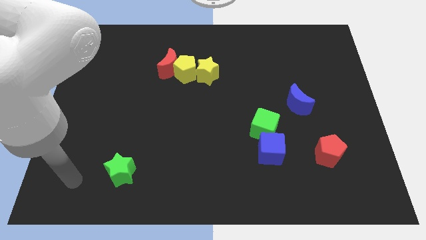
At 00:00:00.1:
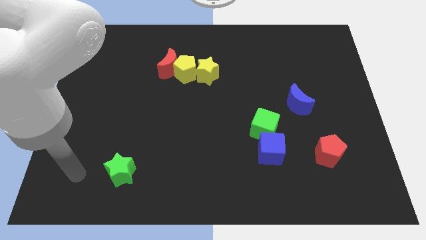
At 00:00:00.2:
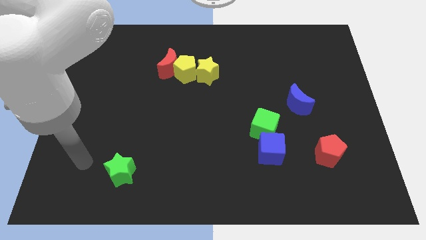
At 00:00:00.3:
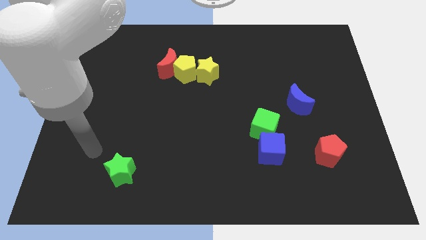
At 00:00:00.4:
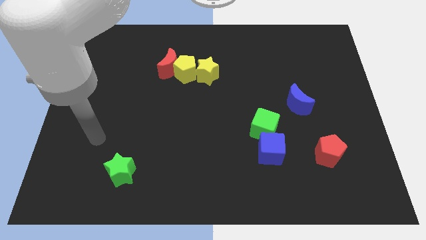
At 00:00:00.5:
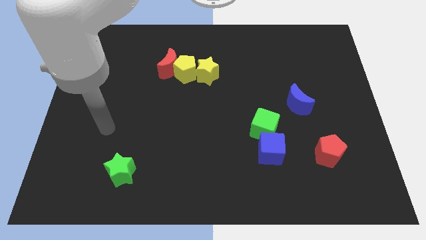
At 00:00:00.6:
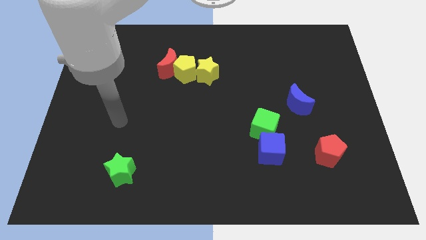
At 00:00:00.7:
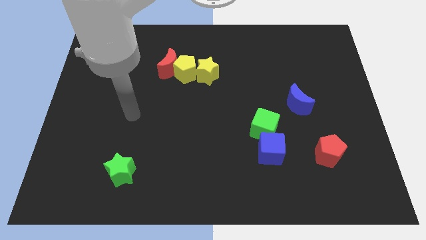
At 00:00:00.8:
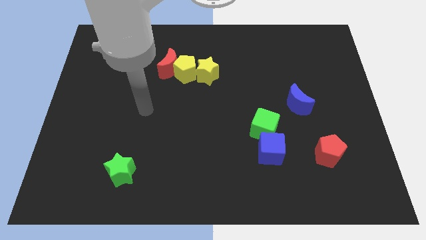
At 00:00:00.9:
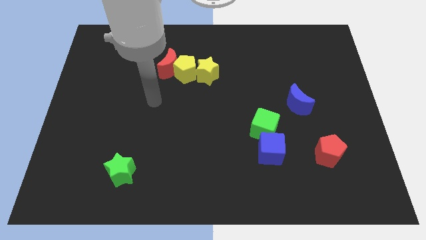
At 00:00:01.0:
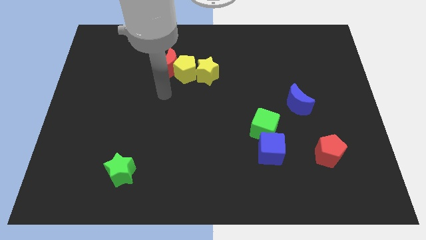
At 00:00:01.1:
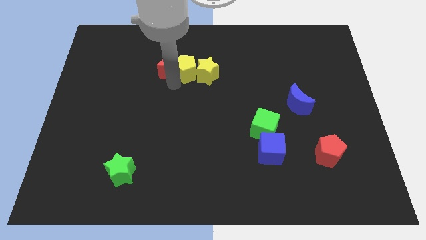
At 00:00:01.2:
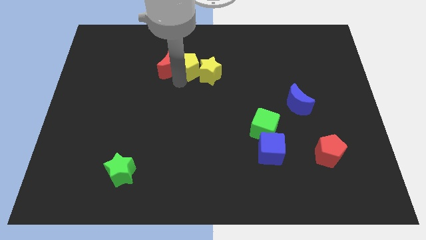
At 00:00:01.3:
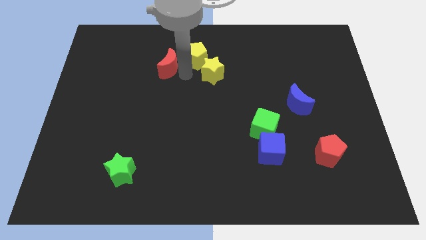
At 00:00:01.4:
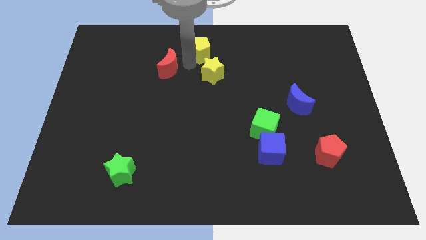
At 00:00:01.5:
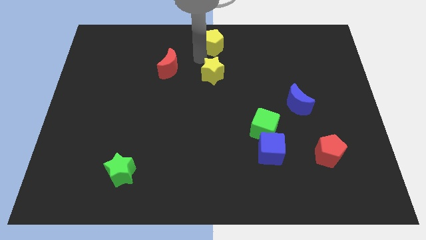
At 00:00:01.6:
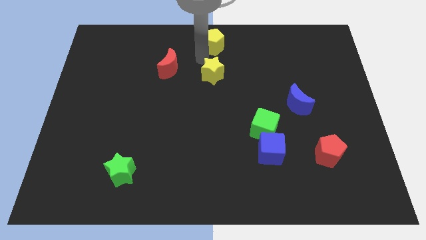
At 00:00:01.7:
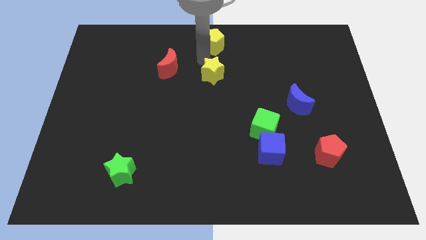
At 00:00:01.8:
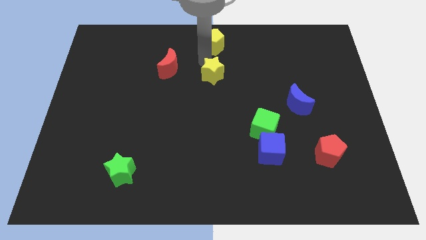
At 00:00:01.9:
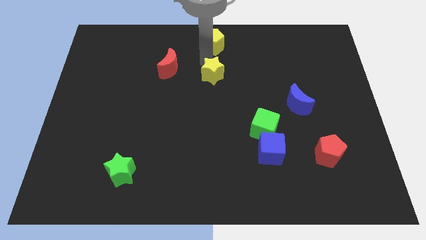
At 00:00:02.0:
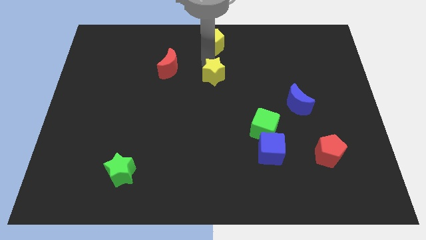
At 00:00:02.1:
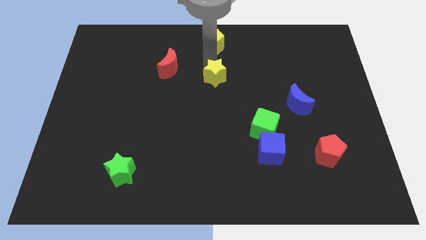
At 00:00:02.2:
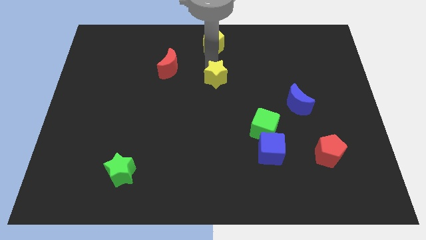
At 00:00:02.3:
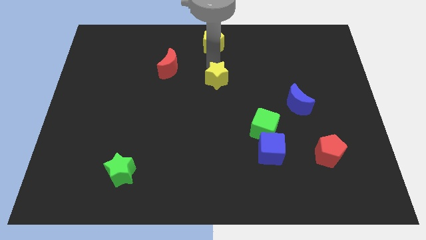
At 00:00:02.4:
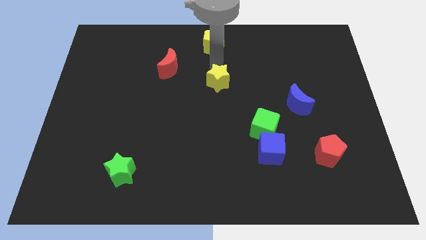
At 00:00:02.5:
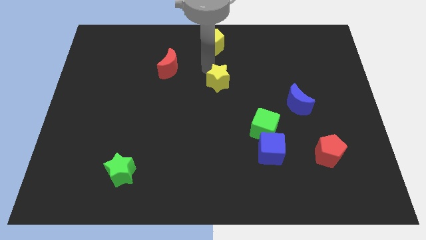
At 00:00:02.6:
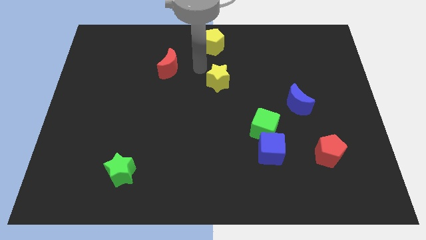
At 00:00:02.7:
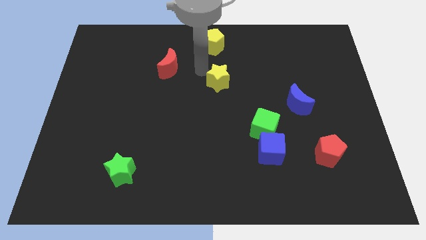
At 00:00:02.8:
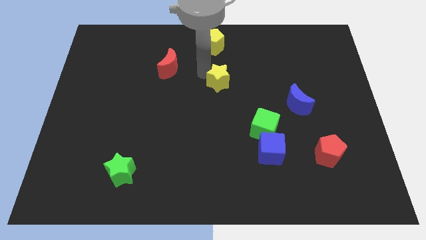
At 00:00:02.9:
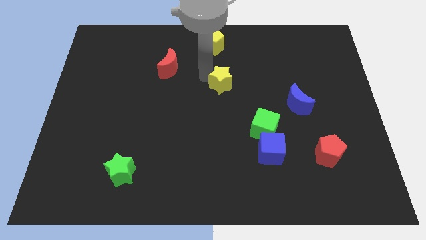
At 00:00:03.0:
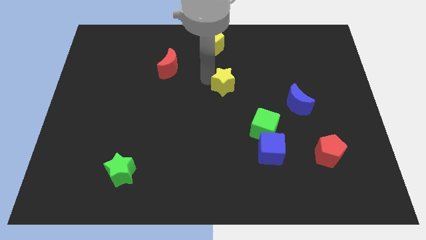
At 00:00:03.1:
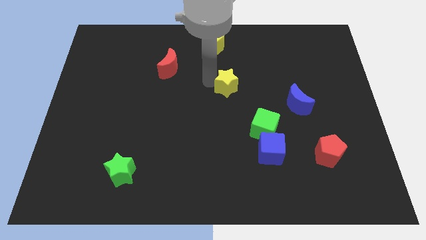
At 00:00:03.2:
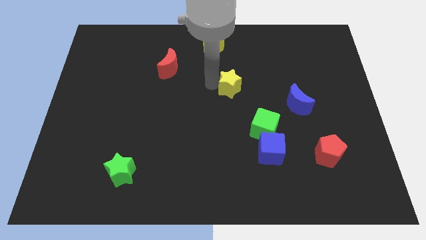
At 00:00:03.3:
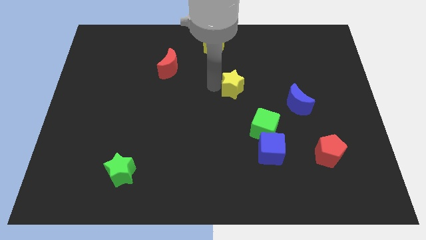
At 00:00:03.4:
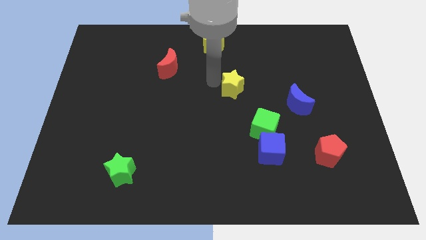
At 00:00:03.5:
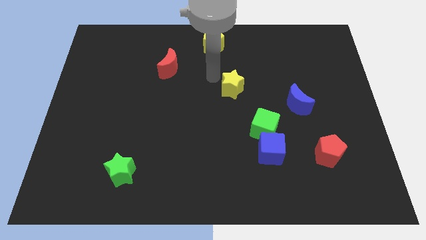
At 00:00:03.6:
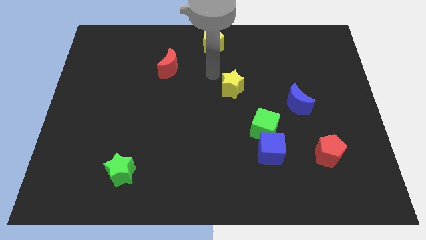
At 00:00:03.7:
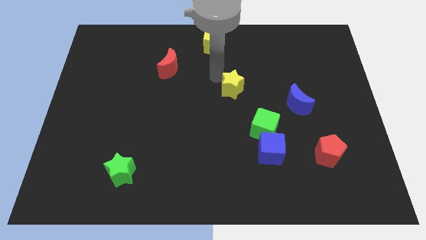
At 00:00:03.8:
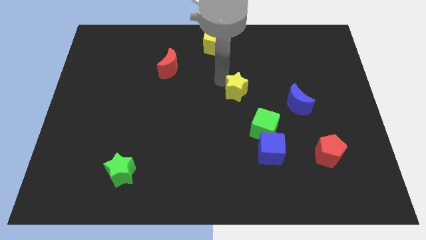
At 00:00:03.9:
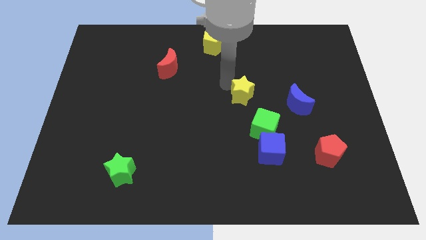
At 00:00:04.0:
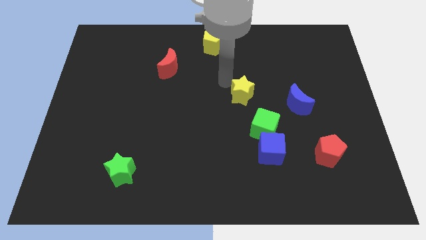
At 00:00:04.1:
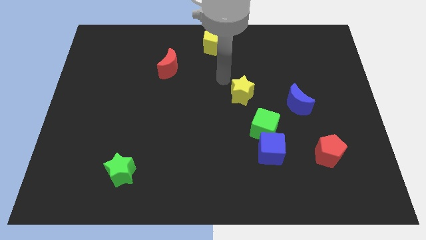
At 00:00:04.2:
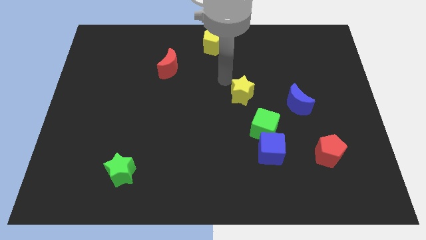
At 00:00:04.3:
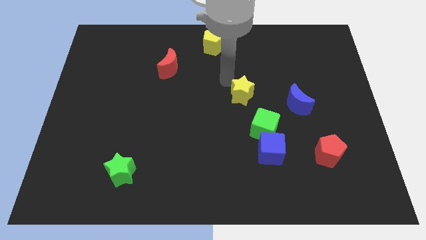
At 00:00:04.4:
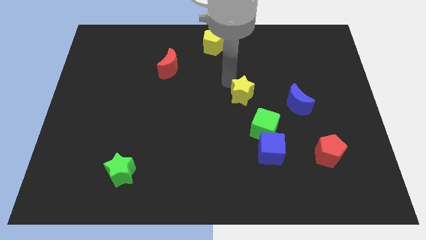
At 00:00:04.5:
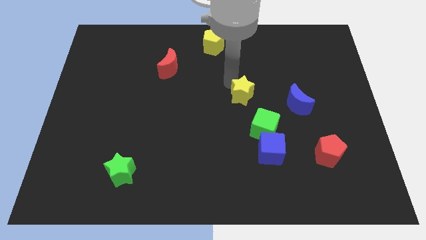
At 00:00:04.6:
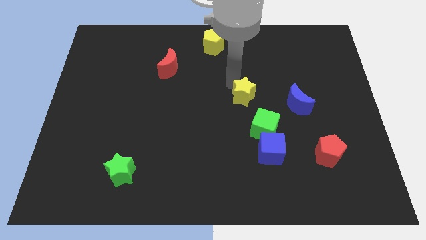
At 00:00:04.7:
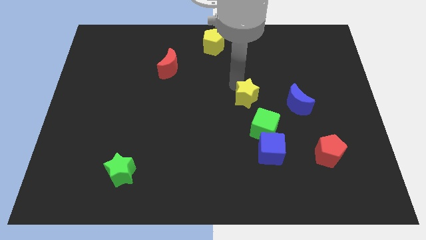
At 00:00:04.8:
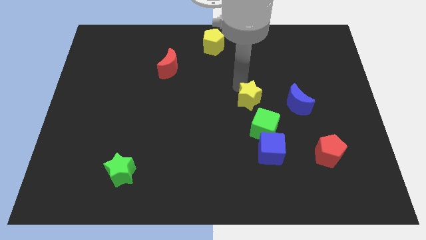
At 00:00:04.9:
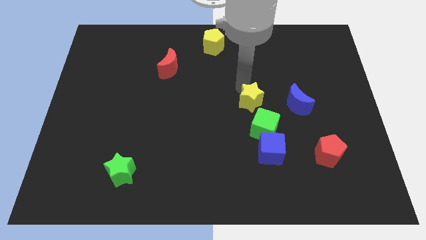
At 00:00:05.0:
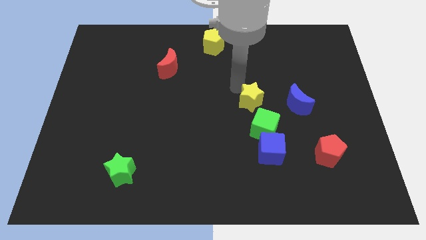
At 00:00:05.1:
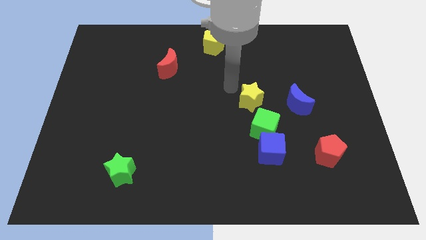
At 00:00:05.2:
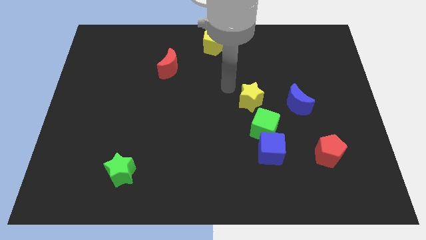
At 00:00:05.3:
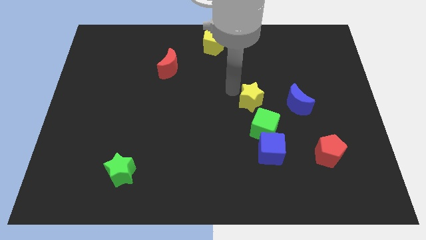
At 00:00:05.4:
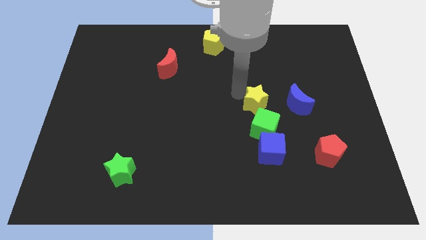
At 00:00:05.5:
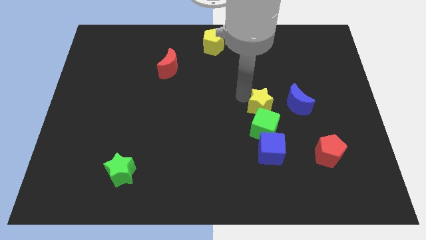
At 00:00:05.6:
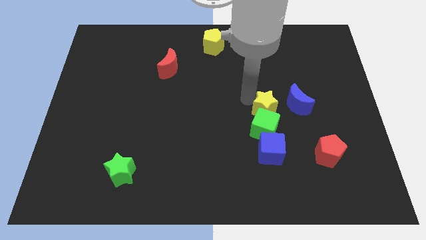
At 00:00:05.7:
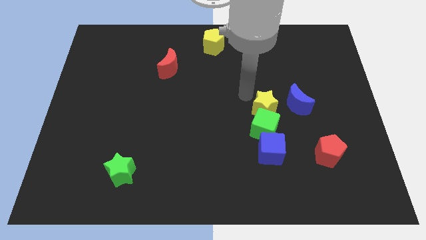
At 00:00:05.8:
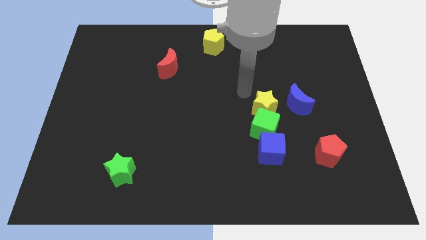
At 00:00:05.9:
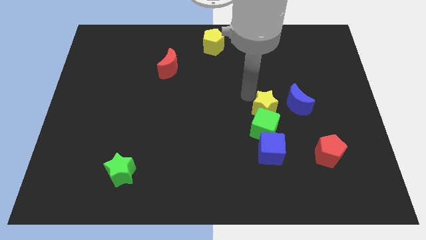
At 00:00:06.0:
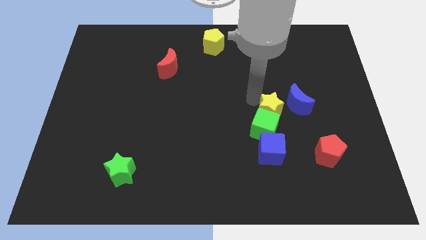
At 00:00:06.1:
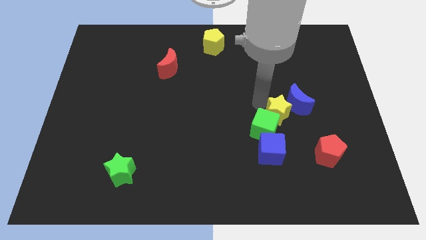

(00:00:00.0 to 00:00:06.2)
slide the yellow star to the right side of the green cube

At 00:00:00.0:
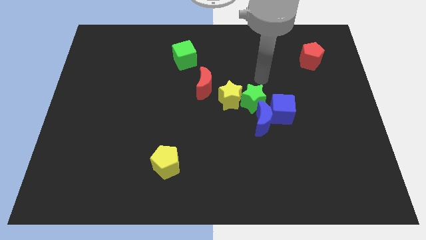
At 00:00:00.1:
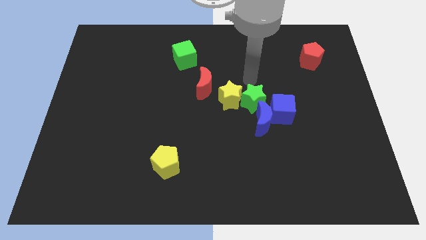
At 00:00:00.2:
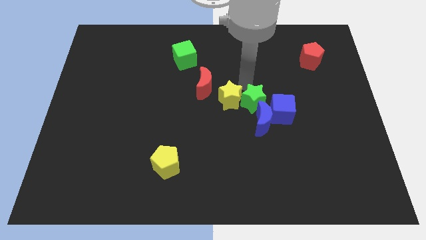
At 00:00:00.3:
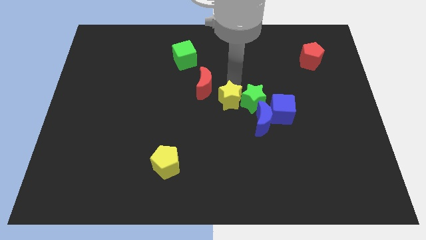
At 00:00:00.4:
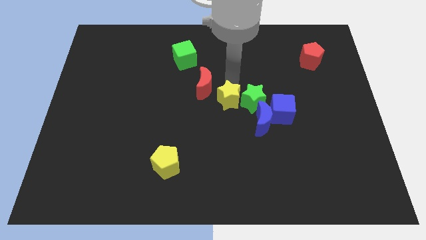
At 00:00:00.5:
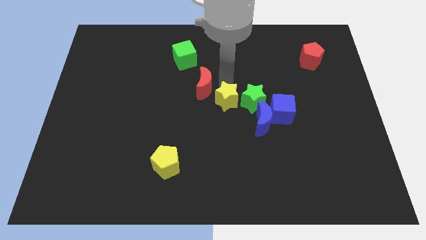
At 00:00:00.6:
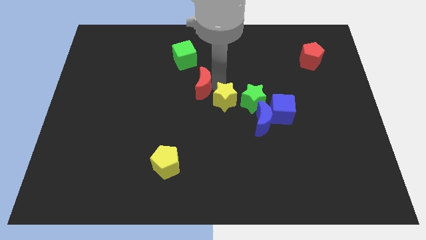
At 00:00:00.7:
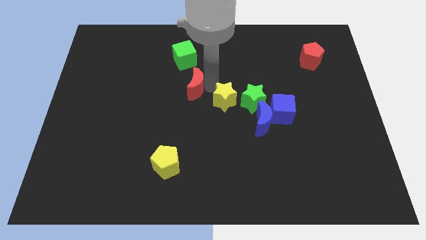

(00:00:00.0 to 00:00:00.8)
move the red moon to the bottom side of the green cube

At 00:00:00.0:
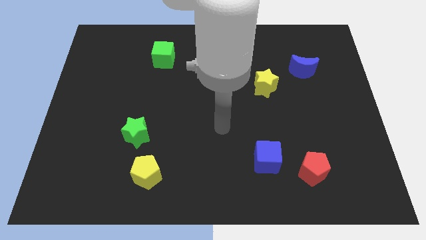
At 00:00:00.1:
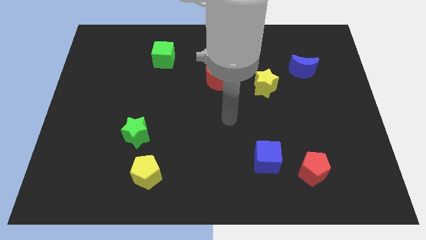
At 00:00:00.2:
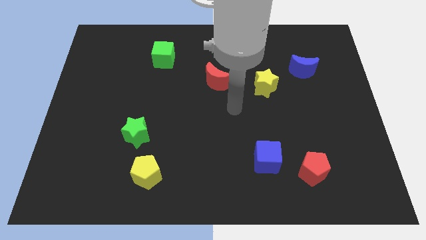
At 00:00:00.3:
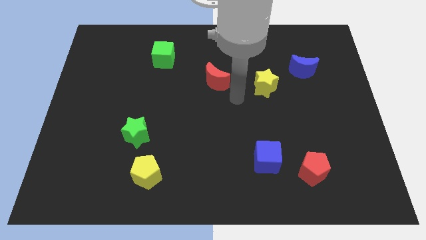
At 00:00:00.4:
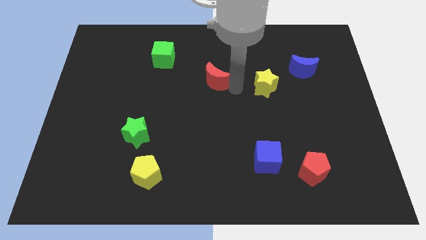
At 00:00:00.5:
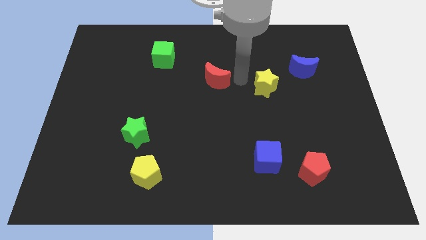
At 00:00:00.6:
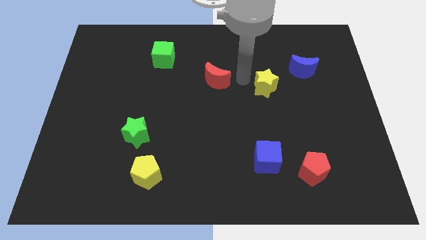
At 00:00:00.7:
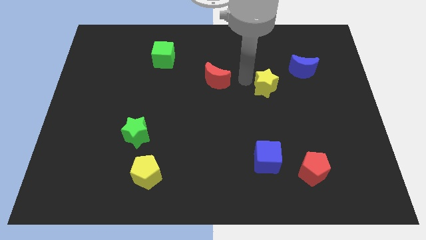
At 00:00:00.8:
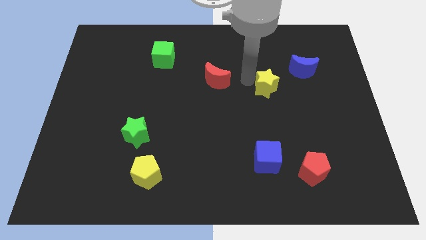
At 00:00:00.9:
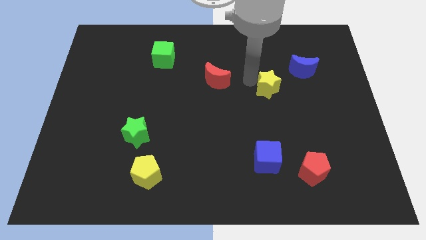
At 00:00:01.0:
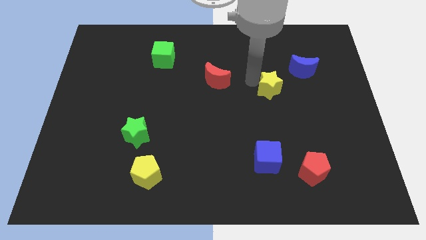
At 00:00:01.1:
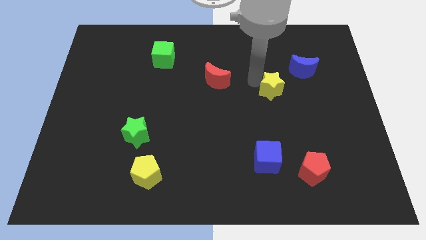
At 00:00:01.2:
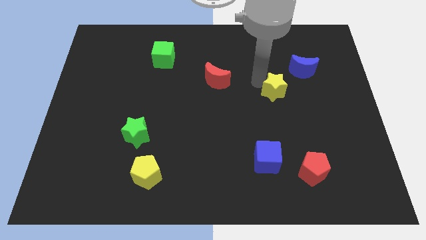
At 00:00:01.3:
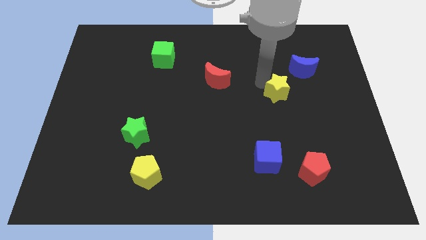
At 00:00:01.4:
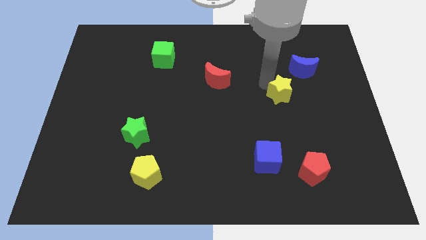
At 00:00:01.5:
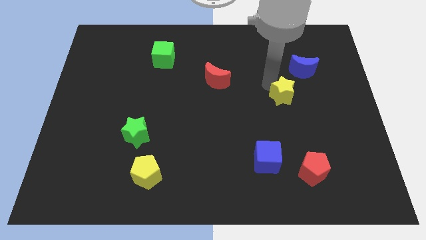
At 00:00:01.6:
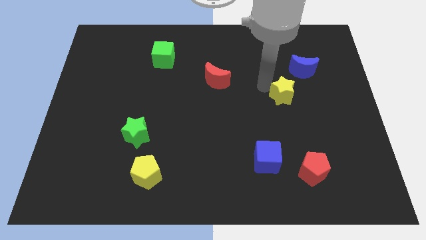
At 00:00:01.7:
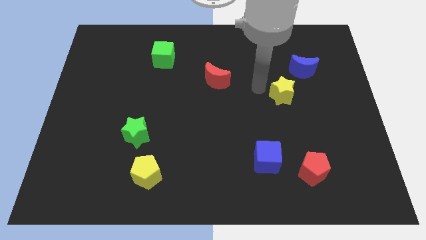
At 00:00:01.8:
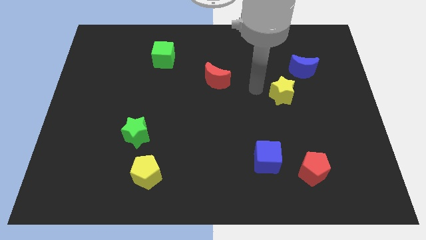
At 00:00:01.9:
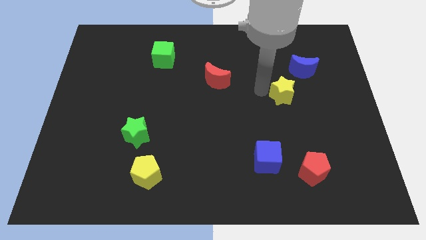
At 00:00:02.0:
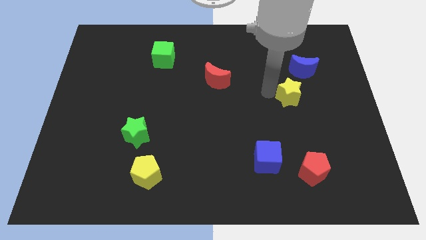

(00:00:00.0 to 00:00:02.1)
push the yellow star to the bottom side of the blue moon
